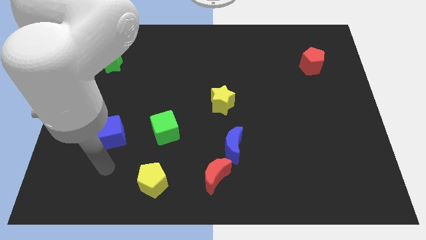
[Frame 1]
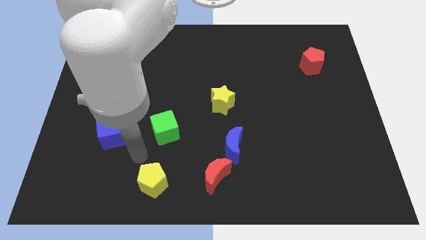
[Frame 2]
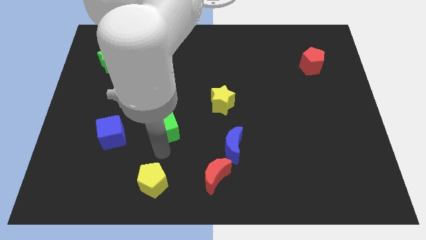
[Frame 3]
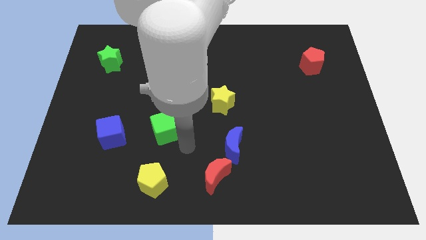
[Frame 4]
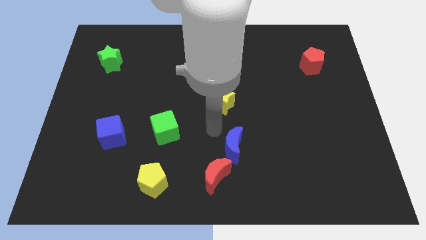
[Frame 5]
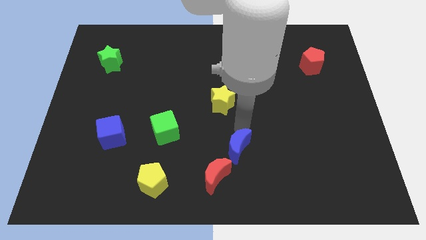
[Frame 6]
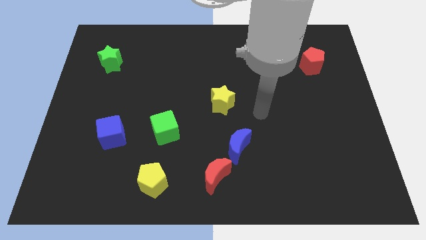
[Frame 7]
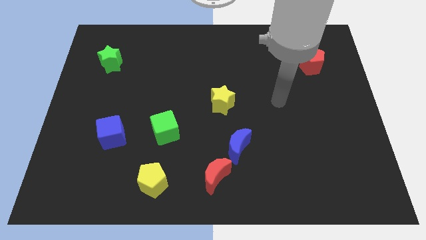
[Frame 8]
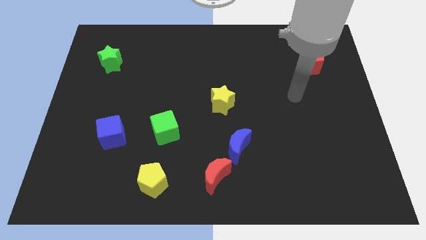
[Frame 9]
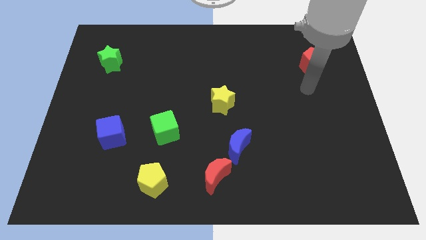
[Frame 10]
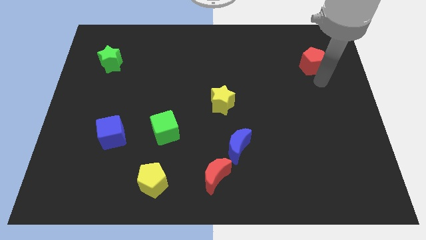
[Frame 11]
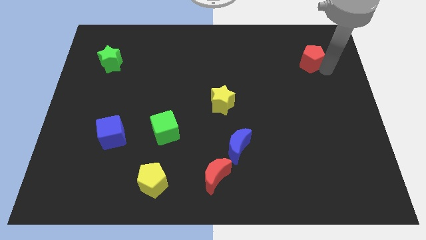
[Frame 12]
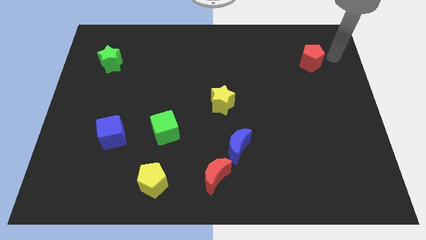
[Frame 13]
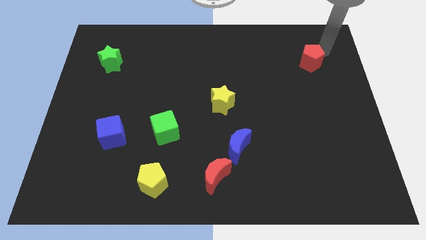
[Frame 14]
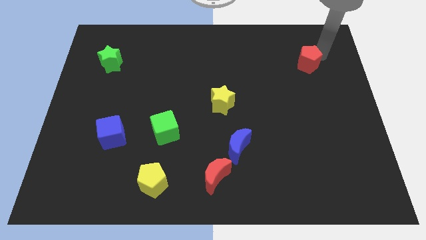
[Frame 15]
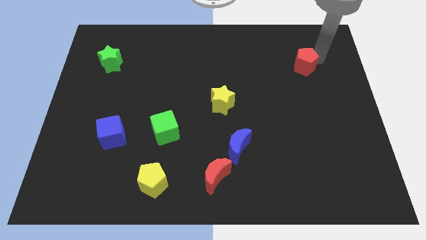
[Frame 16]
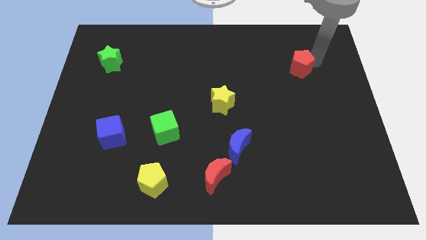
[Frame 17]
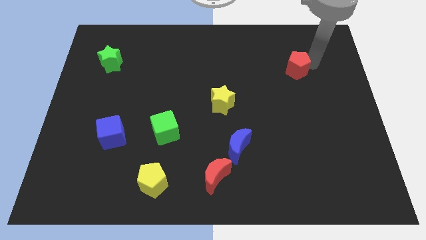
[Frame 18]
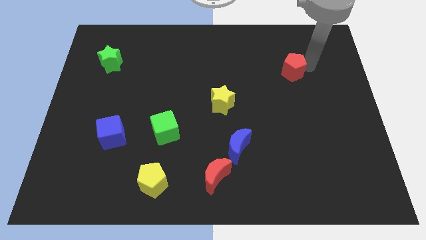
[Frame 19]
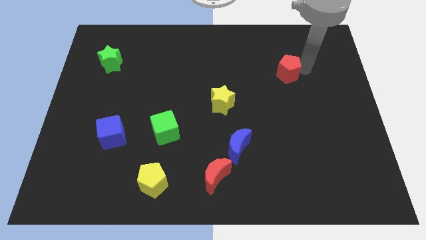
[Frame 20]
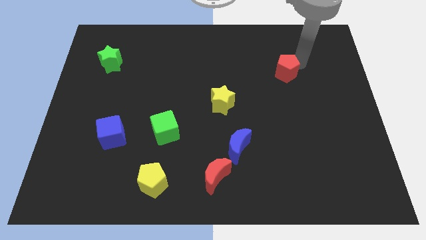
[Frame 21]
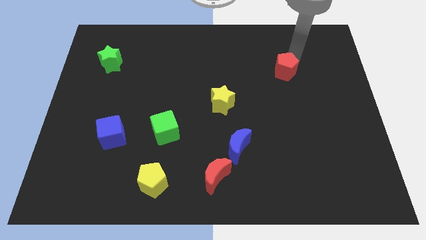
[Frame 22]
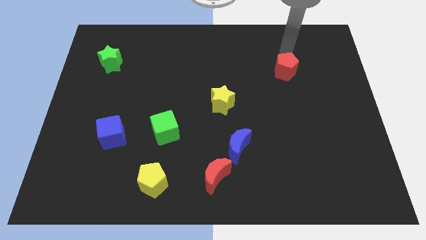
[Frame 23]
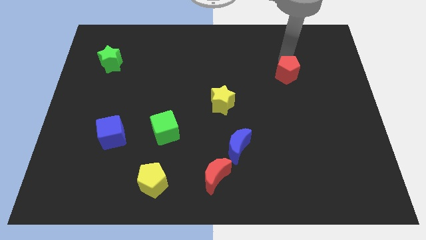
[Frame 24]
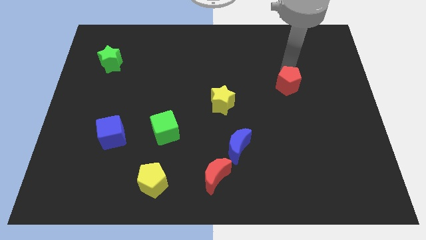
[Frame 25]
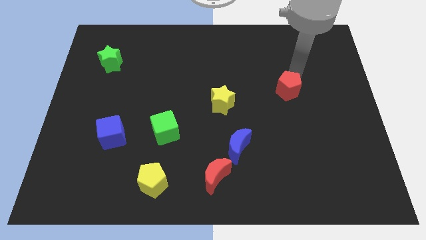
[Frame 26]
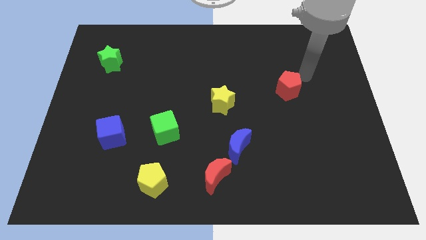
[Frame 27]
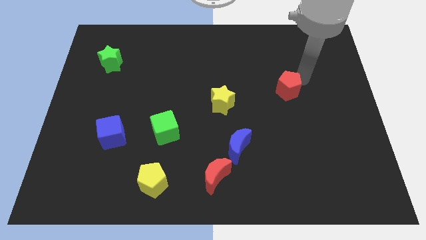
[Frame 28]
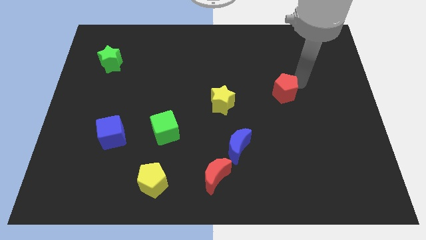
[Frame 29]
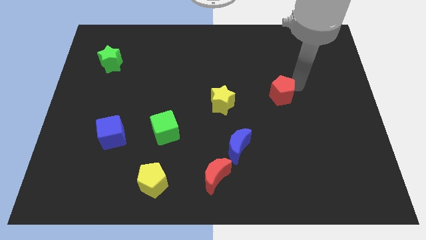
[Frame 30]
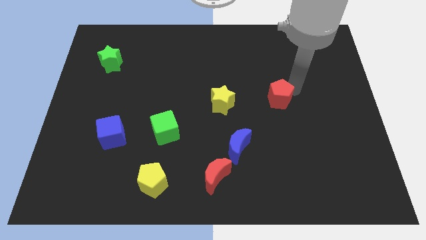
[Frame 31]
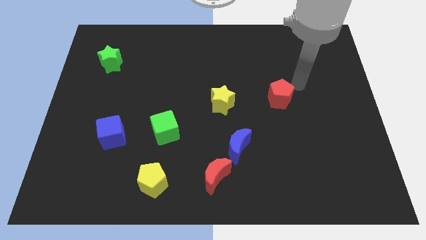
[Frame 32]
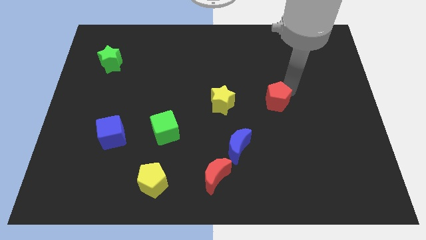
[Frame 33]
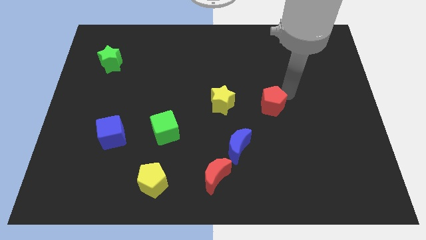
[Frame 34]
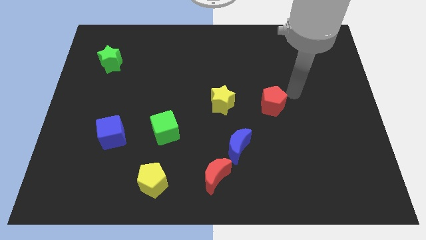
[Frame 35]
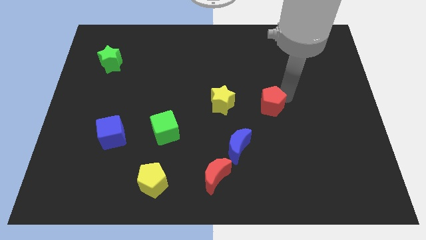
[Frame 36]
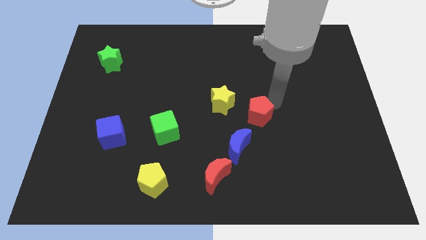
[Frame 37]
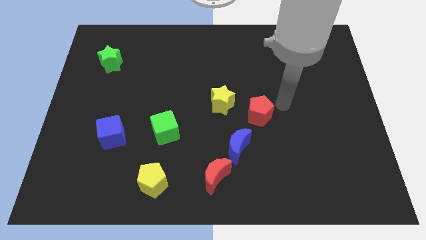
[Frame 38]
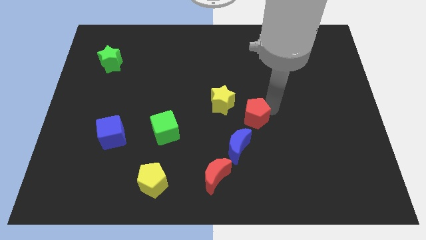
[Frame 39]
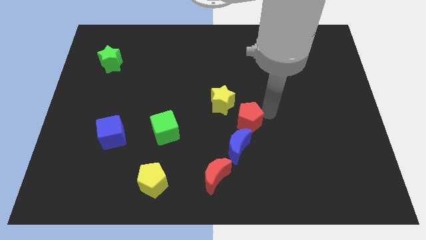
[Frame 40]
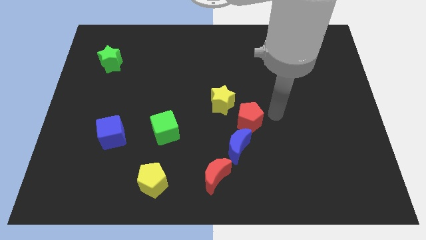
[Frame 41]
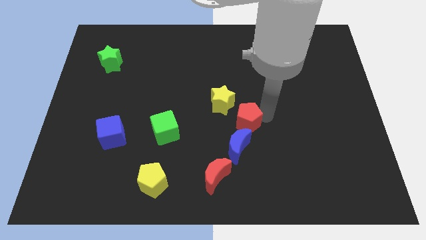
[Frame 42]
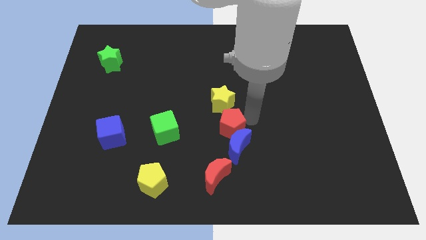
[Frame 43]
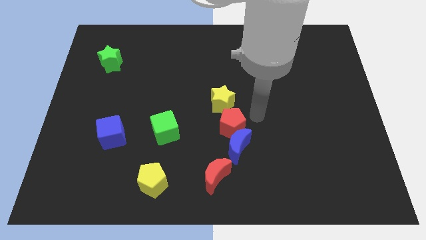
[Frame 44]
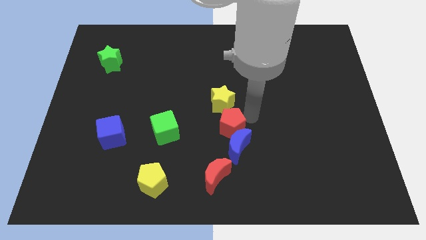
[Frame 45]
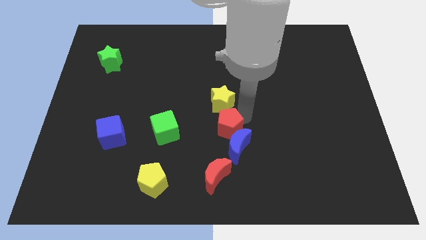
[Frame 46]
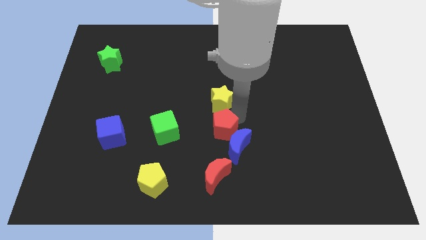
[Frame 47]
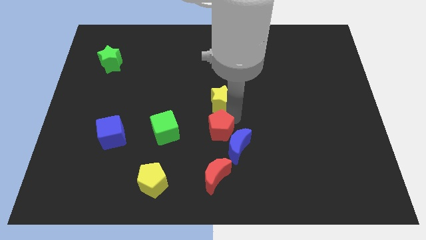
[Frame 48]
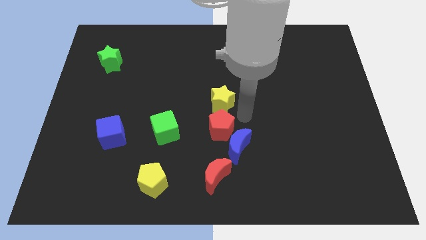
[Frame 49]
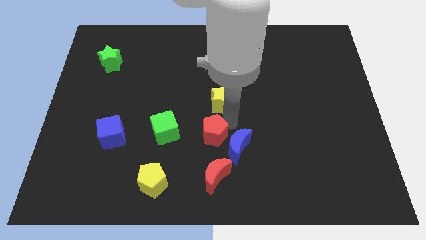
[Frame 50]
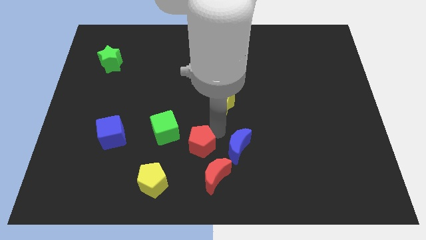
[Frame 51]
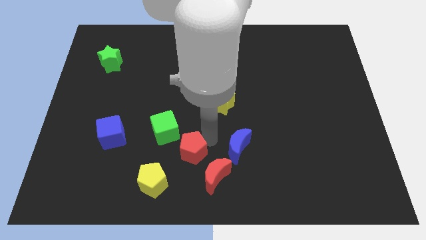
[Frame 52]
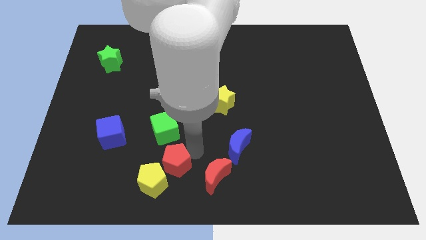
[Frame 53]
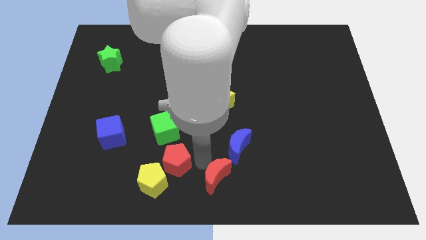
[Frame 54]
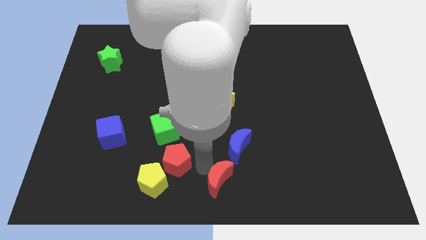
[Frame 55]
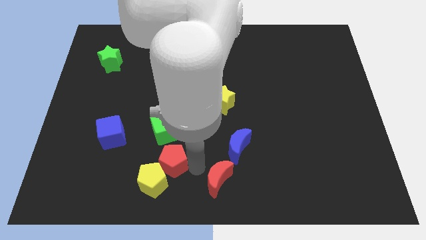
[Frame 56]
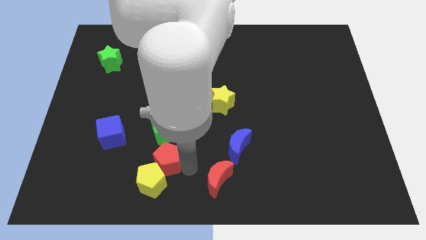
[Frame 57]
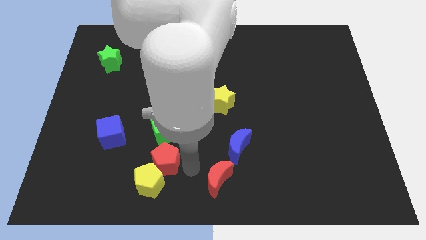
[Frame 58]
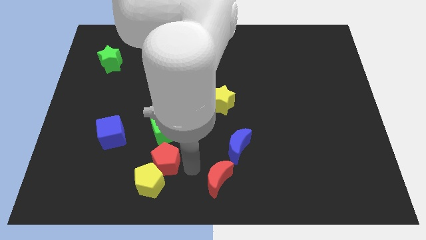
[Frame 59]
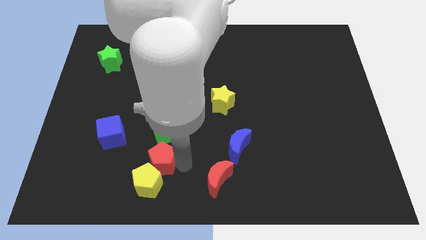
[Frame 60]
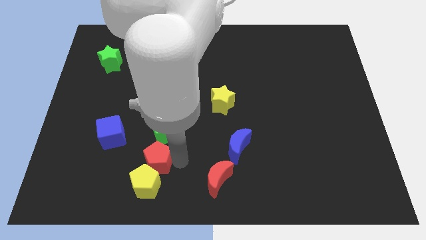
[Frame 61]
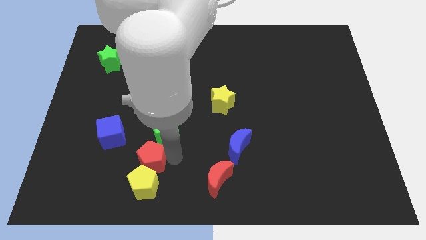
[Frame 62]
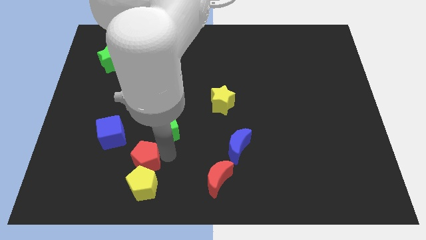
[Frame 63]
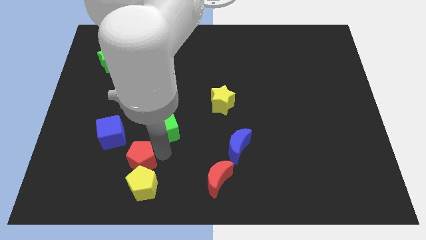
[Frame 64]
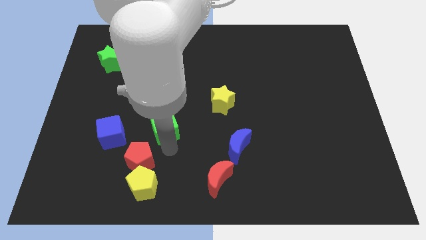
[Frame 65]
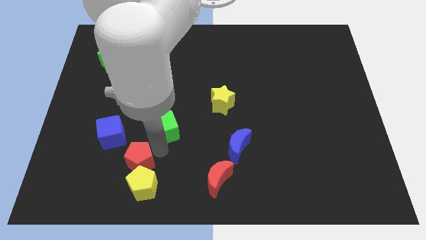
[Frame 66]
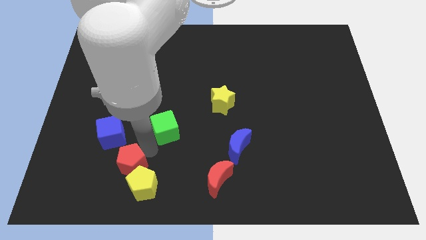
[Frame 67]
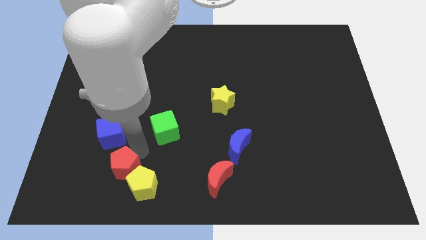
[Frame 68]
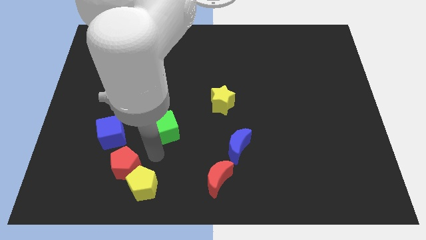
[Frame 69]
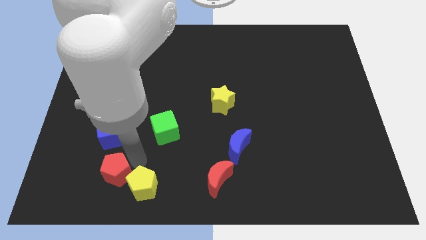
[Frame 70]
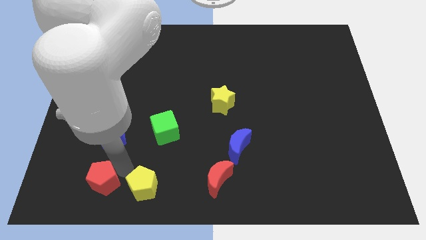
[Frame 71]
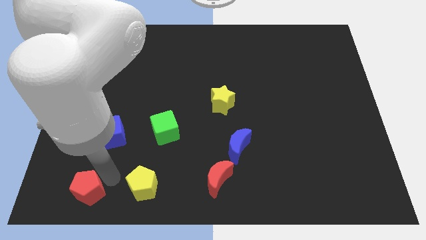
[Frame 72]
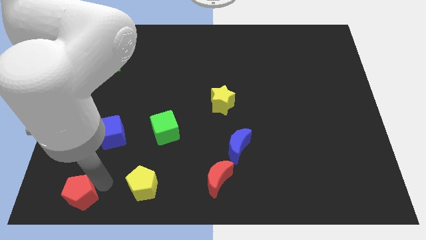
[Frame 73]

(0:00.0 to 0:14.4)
move the red pentagon to the lower left corner
